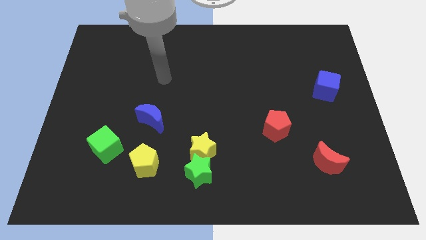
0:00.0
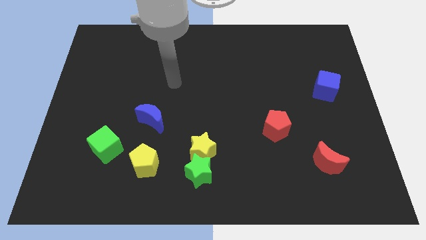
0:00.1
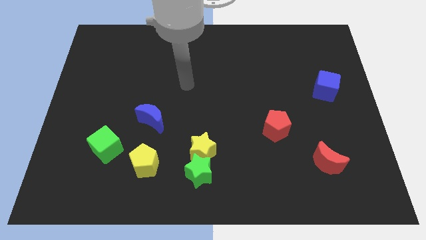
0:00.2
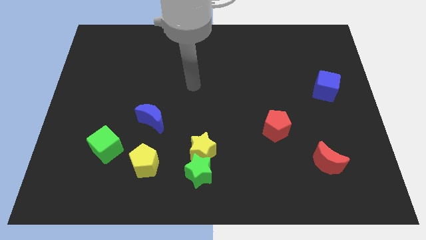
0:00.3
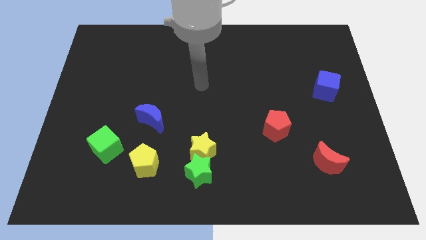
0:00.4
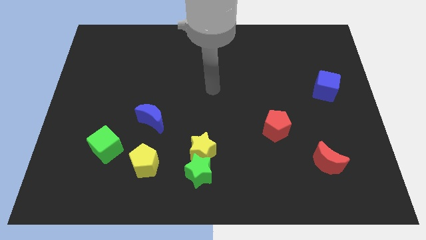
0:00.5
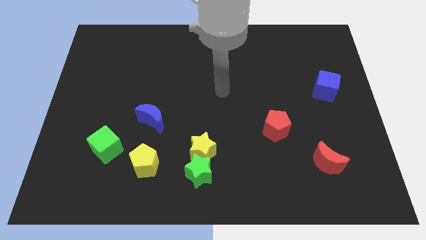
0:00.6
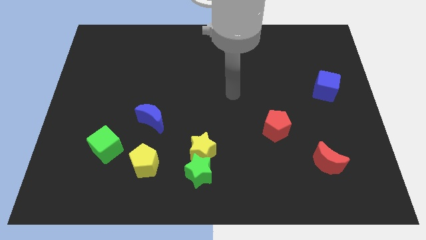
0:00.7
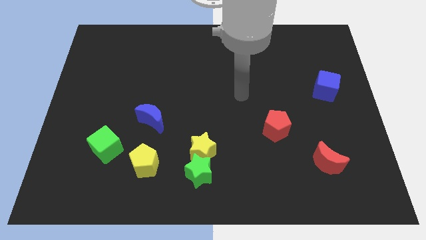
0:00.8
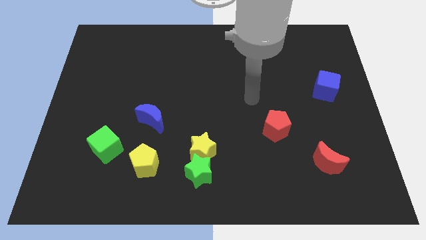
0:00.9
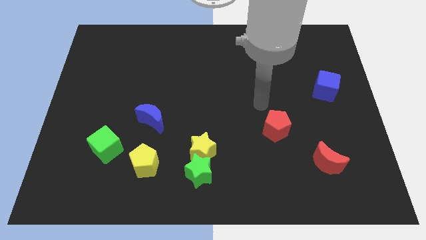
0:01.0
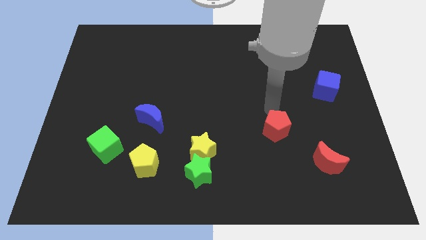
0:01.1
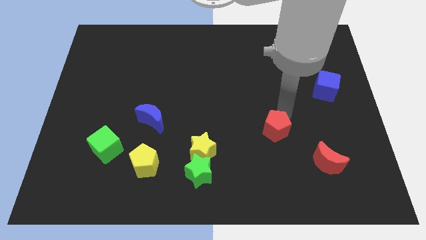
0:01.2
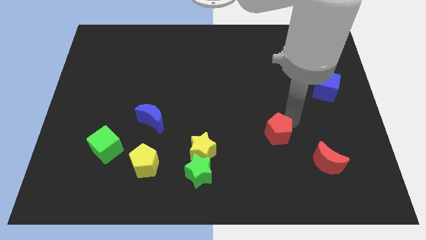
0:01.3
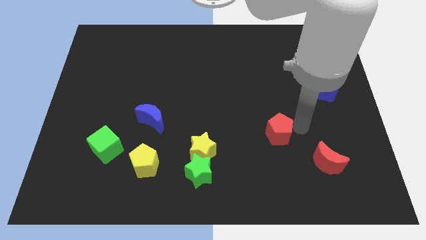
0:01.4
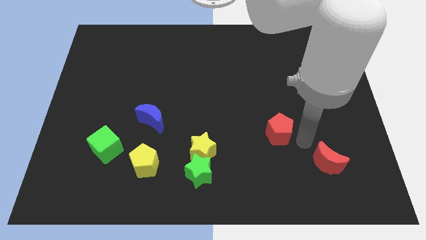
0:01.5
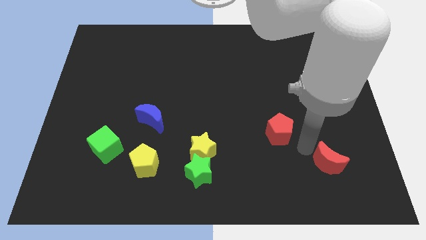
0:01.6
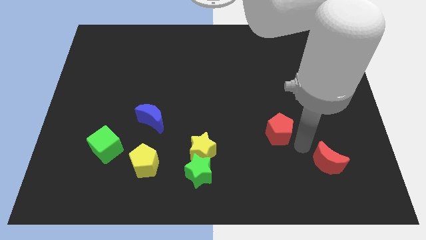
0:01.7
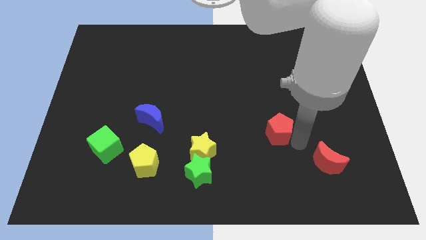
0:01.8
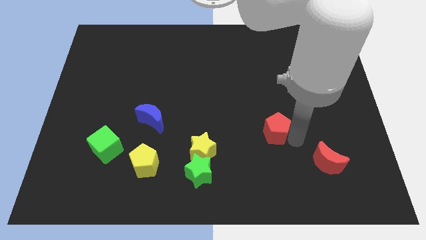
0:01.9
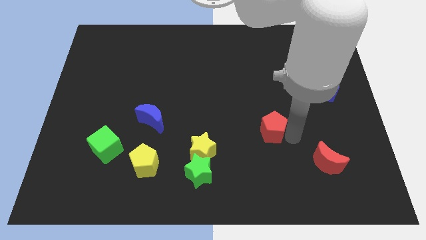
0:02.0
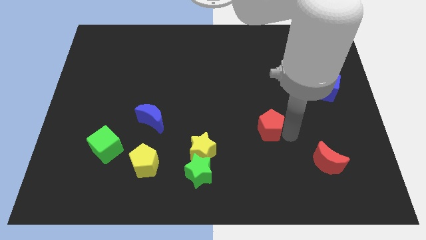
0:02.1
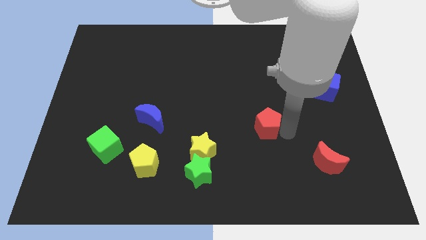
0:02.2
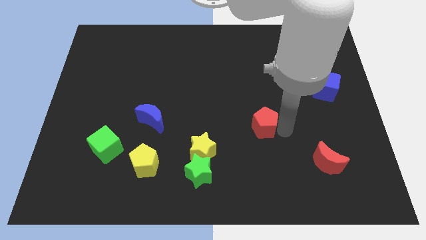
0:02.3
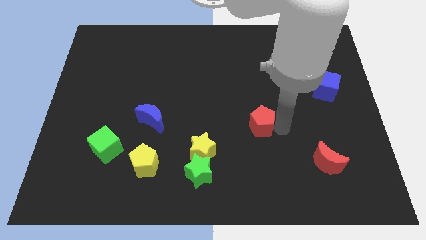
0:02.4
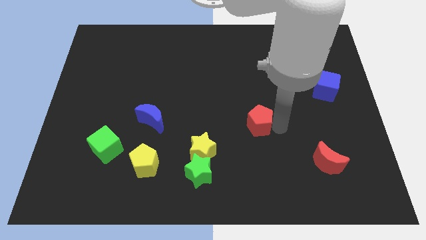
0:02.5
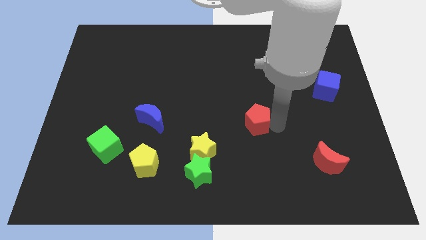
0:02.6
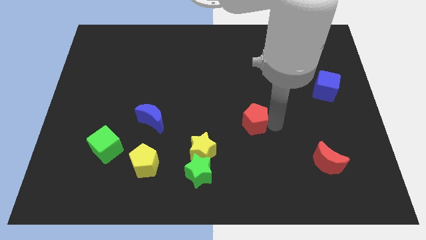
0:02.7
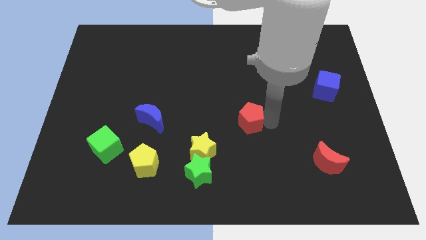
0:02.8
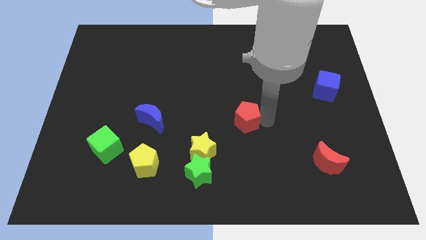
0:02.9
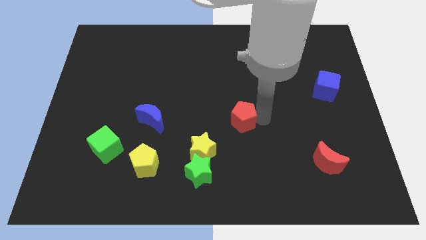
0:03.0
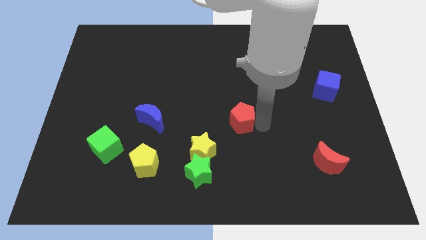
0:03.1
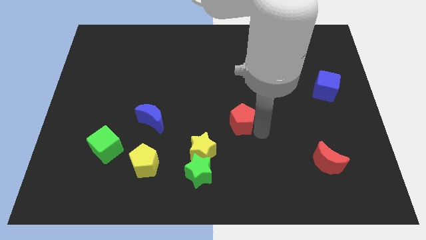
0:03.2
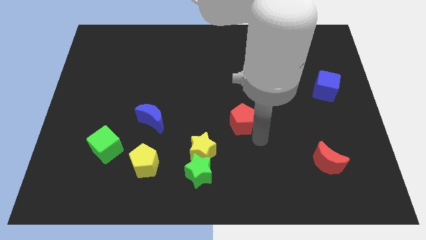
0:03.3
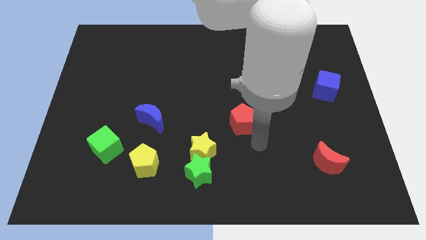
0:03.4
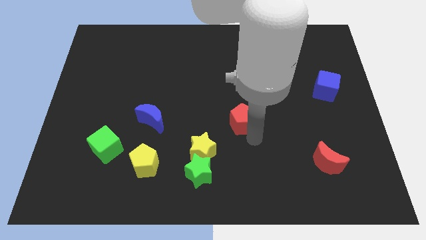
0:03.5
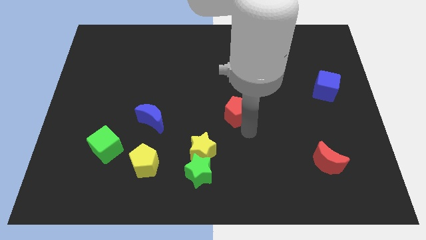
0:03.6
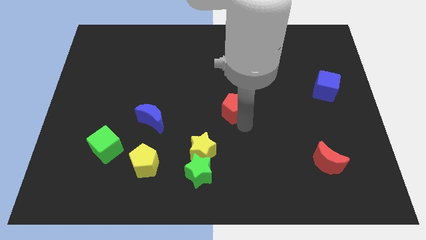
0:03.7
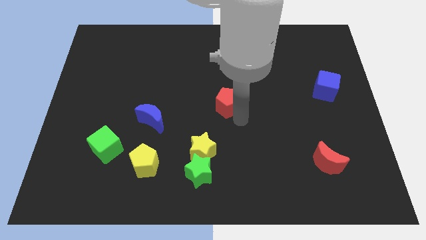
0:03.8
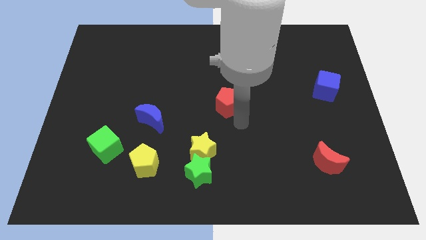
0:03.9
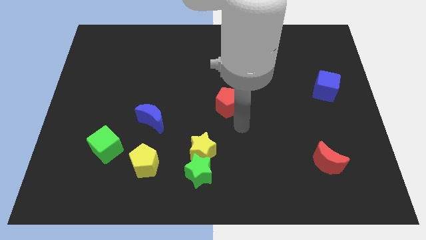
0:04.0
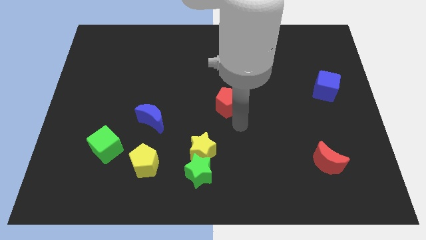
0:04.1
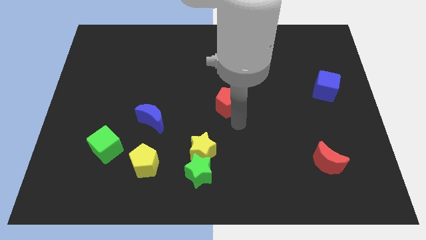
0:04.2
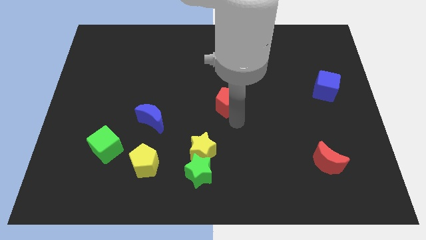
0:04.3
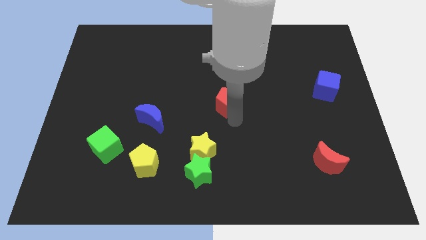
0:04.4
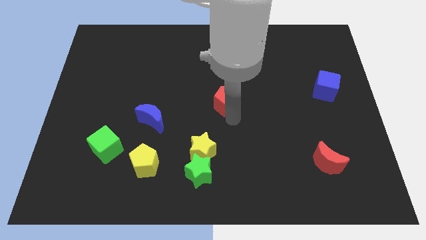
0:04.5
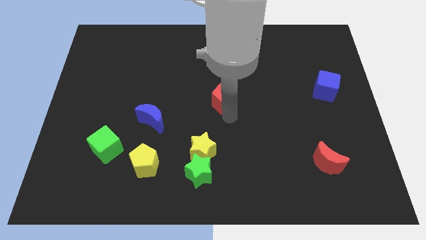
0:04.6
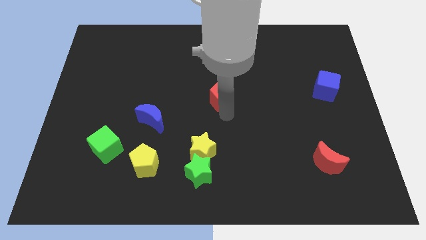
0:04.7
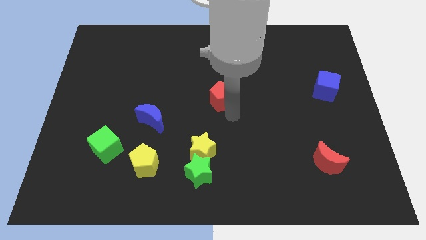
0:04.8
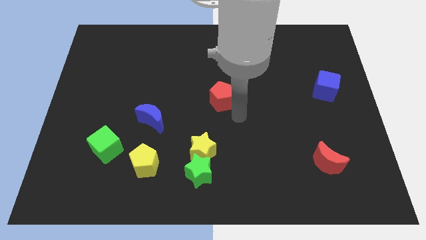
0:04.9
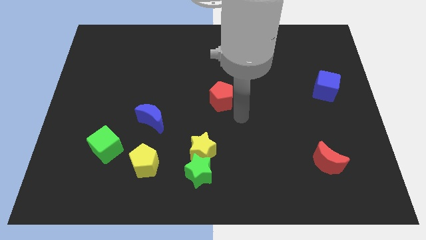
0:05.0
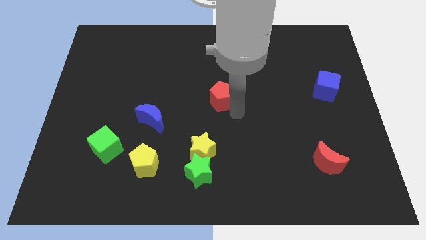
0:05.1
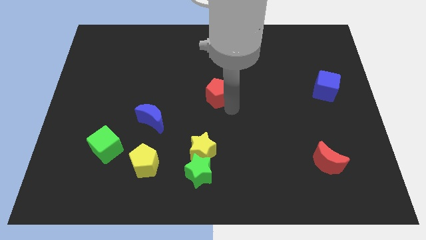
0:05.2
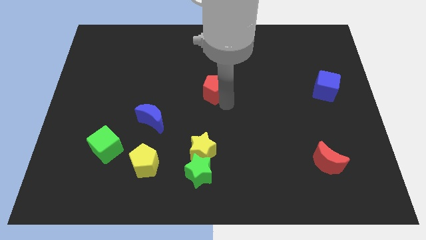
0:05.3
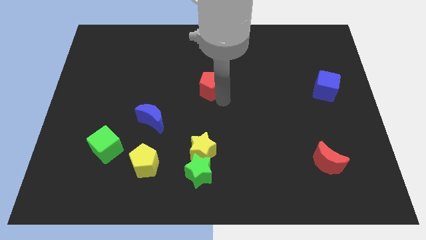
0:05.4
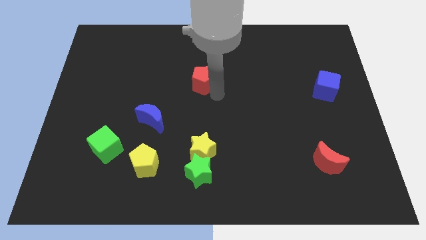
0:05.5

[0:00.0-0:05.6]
move the red pentagon diagonally upwards and to the left

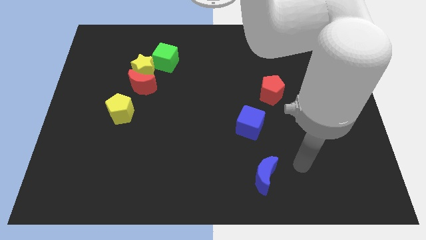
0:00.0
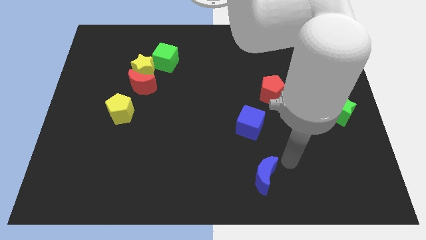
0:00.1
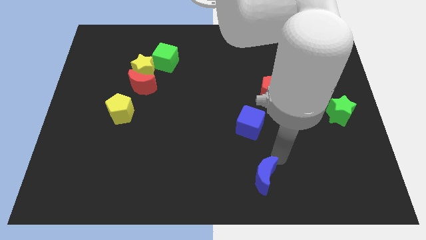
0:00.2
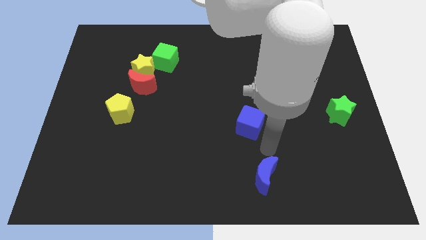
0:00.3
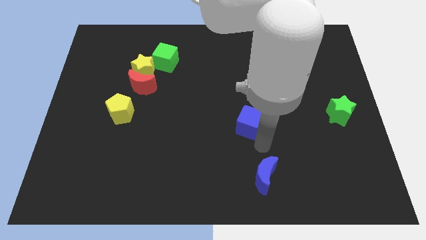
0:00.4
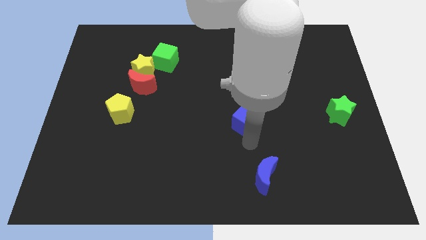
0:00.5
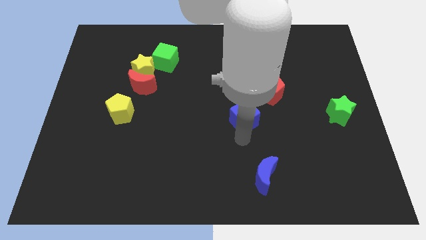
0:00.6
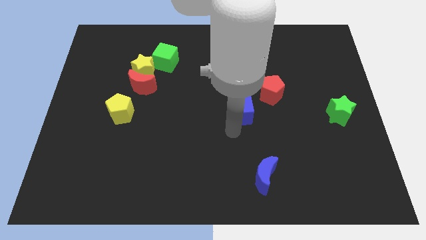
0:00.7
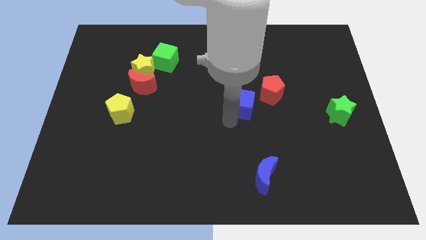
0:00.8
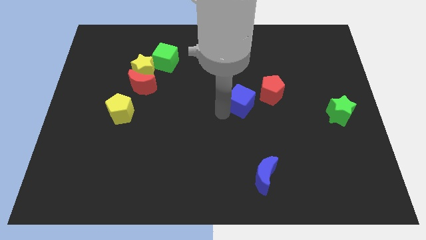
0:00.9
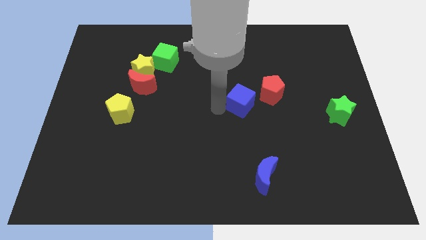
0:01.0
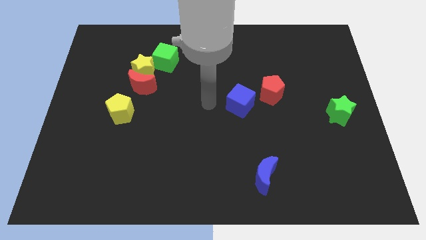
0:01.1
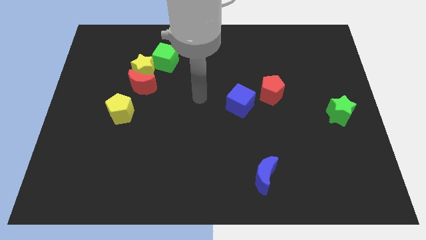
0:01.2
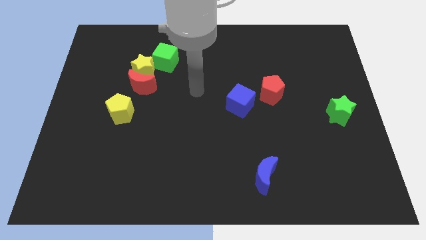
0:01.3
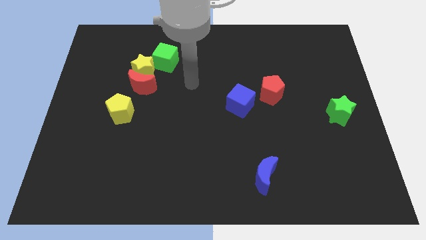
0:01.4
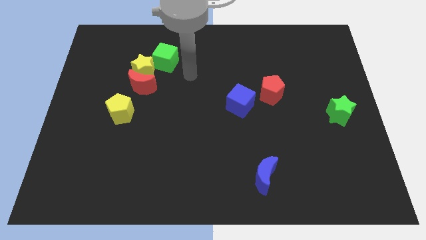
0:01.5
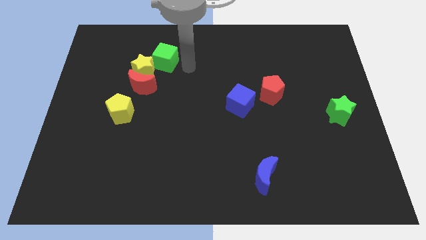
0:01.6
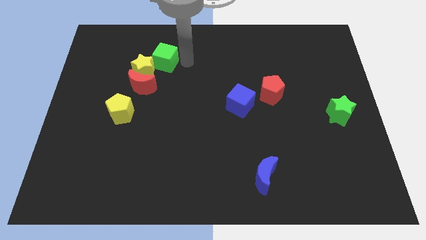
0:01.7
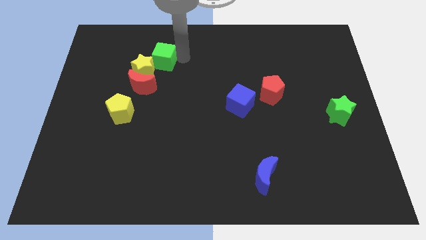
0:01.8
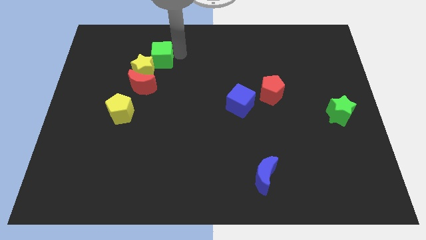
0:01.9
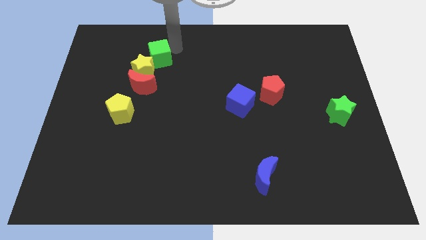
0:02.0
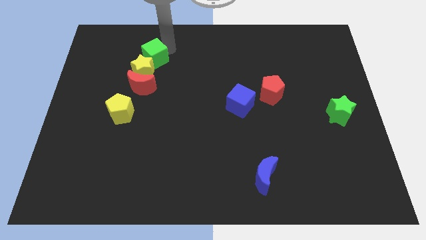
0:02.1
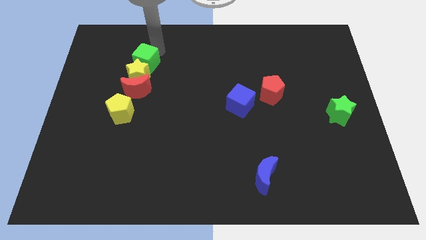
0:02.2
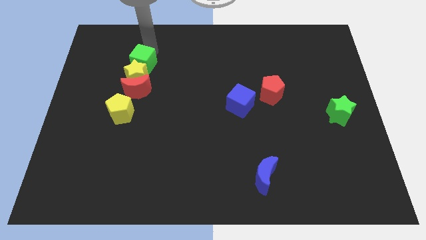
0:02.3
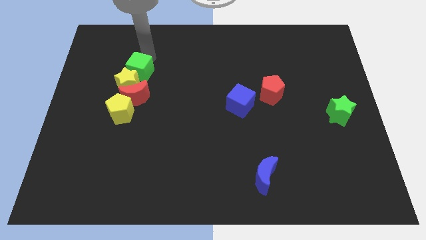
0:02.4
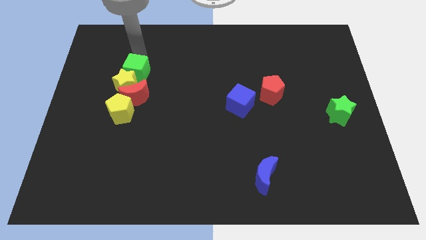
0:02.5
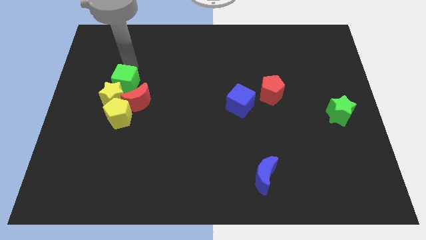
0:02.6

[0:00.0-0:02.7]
slightly slide the yellow star downwards

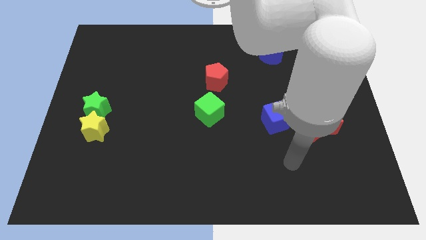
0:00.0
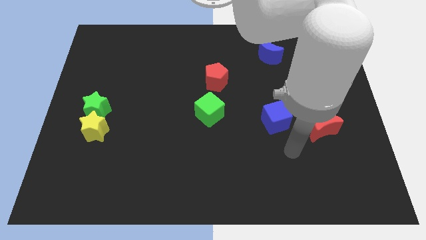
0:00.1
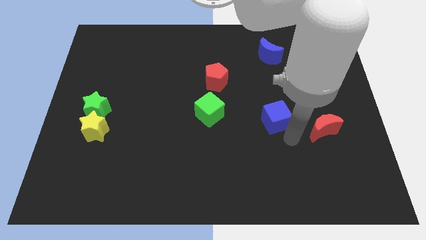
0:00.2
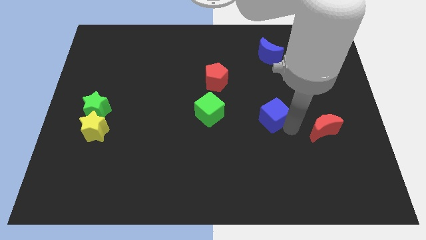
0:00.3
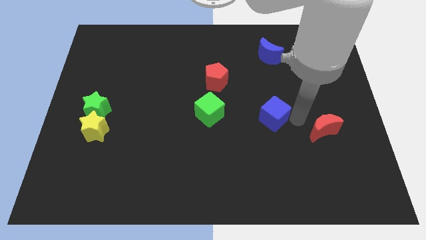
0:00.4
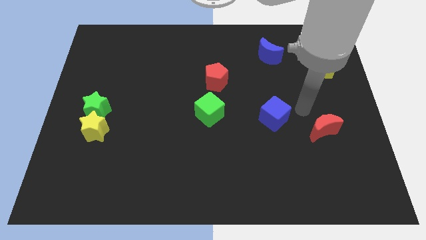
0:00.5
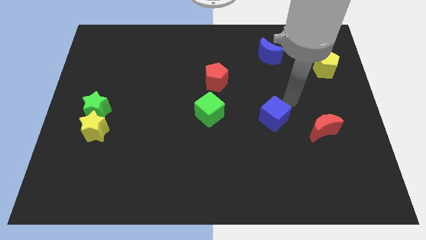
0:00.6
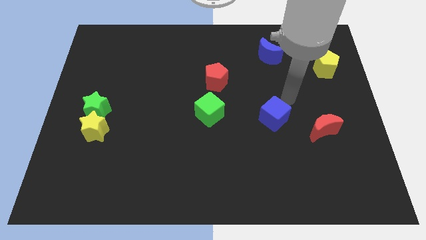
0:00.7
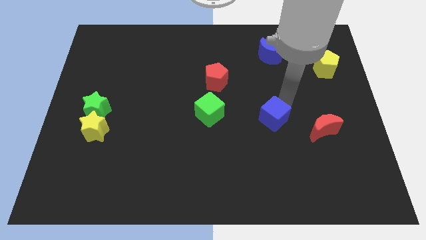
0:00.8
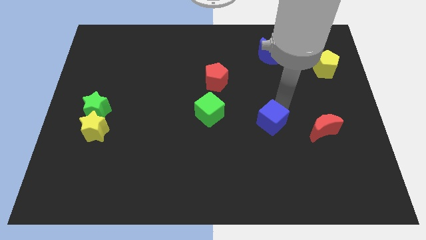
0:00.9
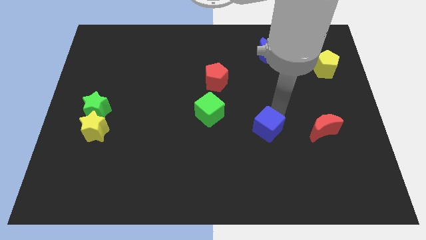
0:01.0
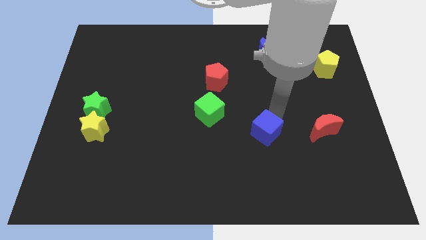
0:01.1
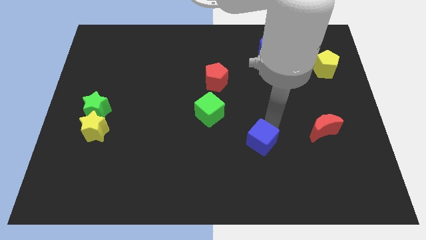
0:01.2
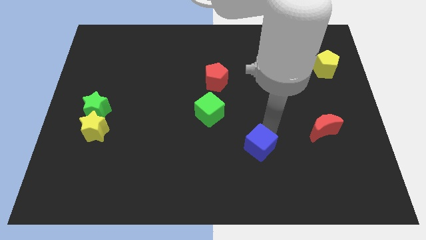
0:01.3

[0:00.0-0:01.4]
slightly move the blue cube down and then left
